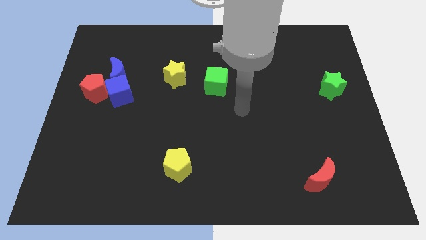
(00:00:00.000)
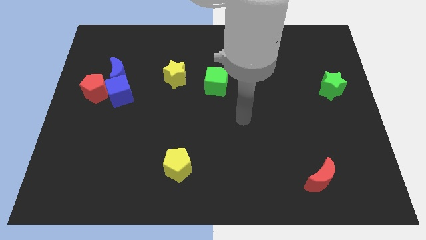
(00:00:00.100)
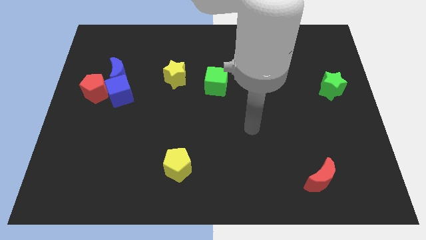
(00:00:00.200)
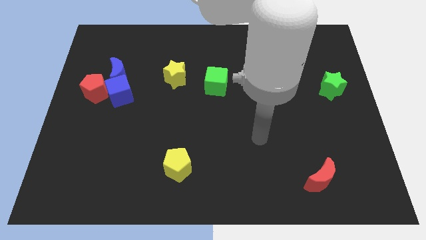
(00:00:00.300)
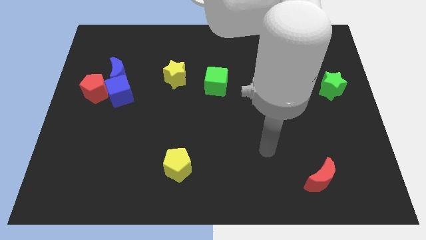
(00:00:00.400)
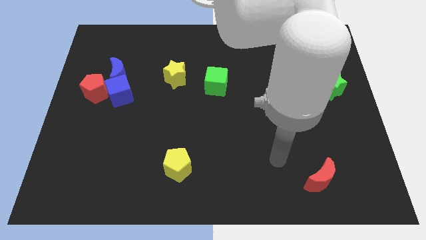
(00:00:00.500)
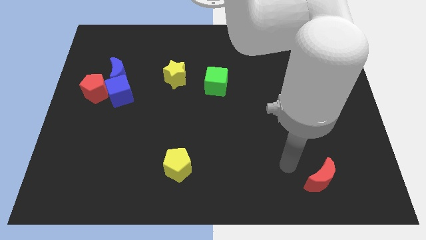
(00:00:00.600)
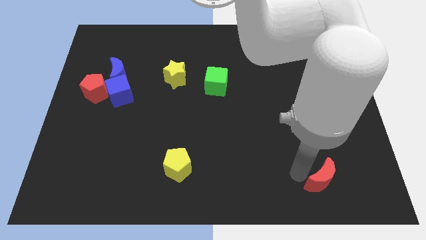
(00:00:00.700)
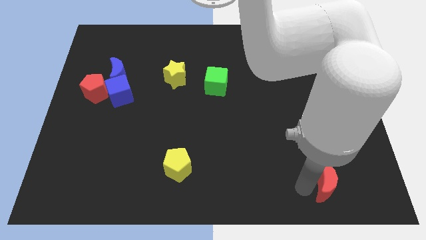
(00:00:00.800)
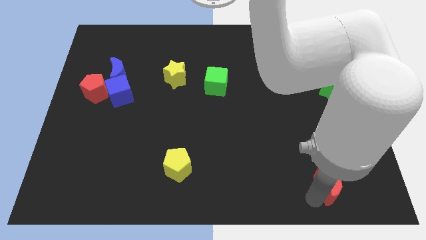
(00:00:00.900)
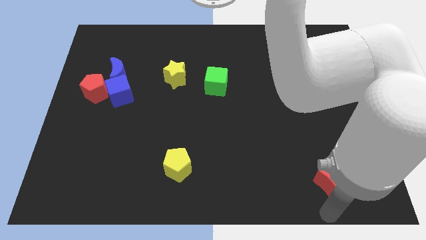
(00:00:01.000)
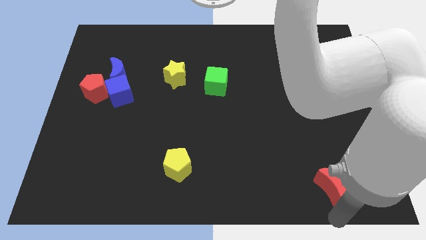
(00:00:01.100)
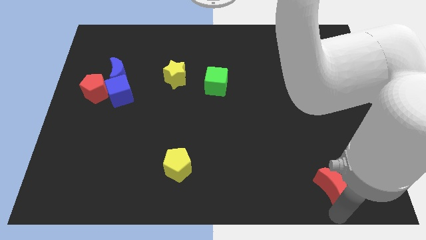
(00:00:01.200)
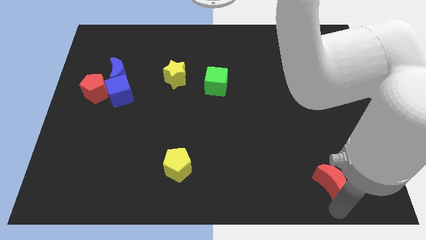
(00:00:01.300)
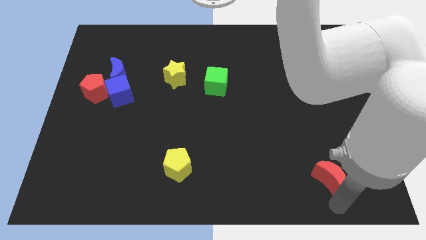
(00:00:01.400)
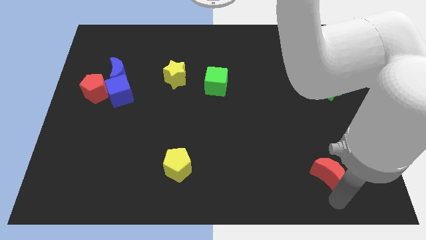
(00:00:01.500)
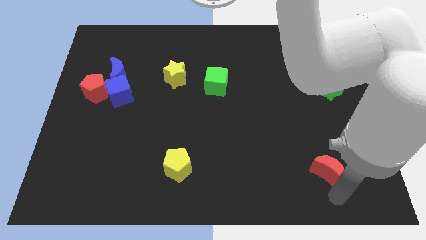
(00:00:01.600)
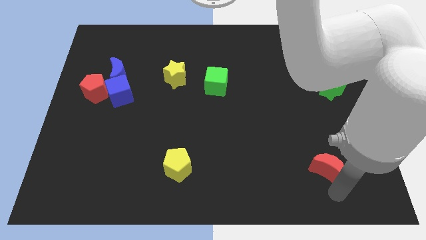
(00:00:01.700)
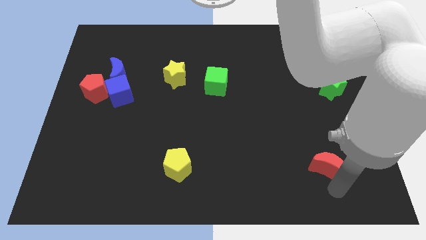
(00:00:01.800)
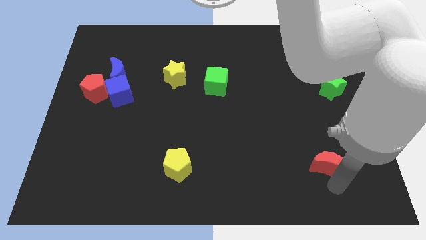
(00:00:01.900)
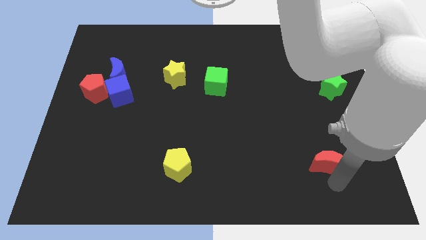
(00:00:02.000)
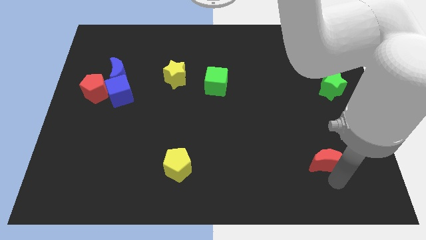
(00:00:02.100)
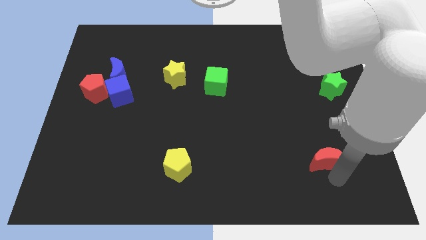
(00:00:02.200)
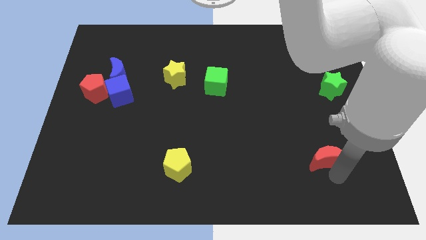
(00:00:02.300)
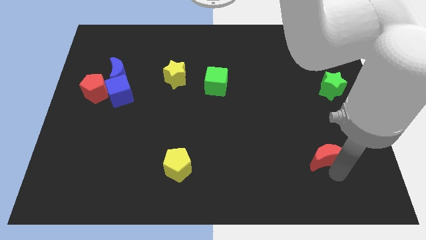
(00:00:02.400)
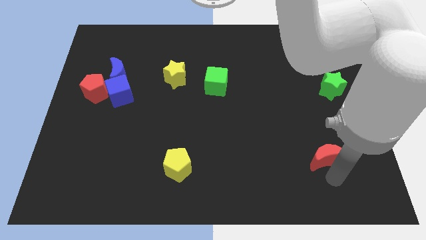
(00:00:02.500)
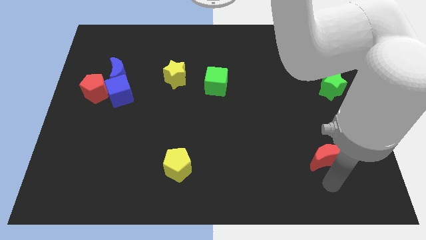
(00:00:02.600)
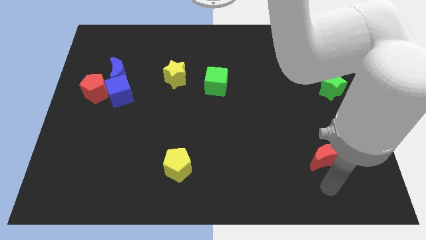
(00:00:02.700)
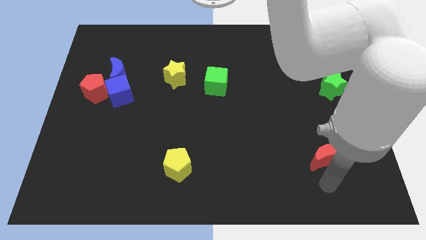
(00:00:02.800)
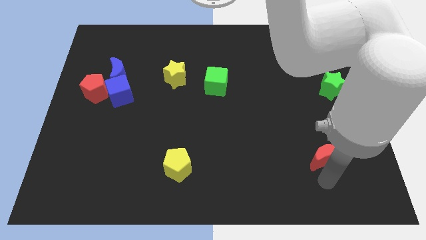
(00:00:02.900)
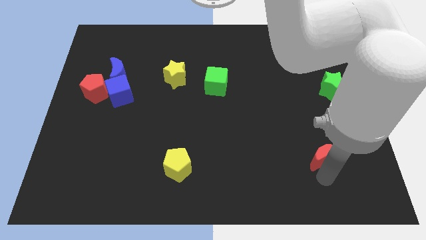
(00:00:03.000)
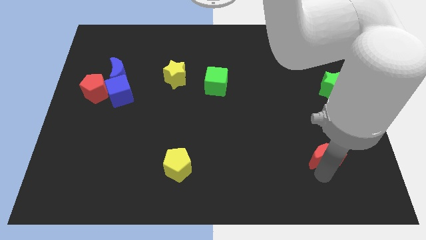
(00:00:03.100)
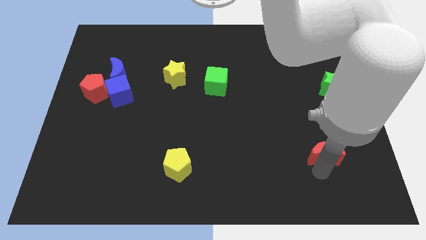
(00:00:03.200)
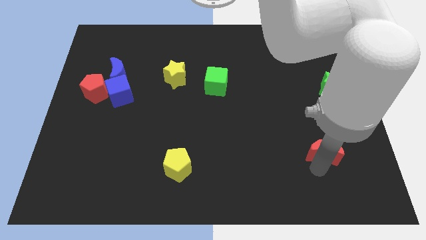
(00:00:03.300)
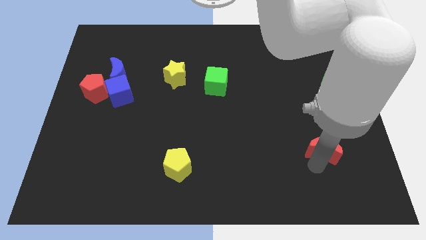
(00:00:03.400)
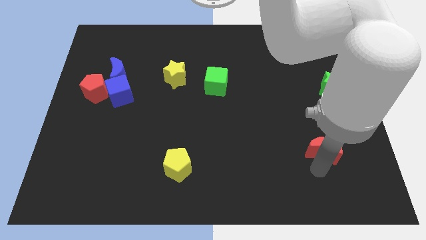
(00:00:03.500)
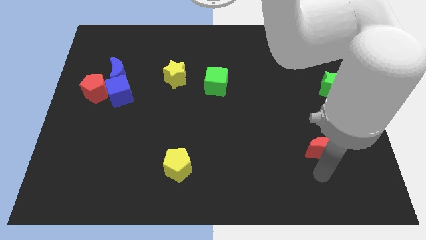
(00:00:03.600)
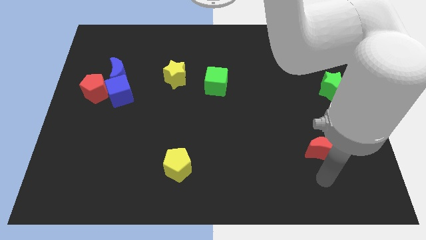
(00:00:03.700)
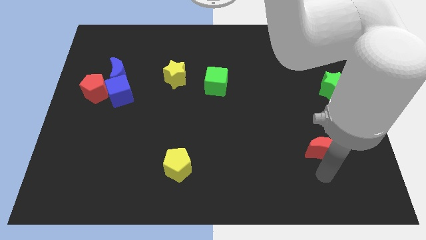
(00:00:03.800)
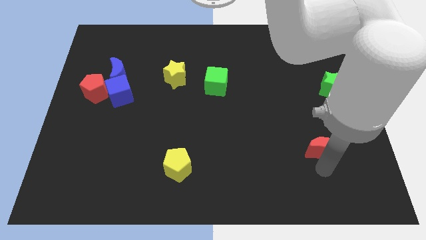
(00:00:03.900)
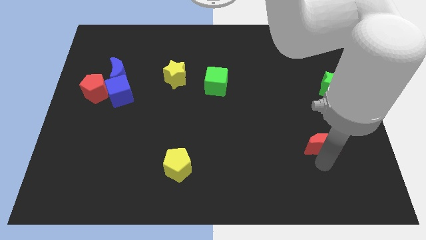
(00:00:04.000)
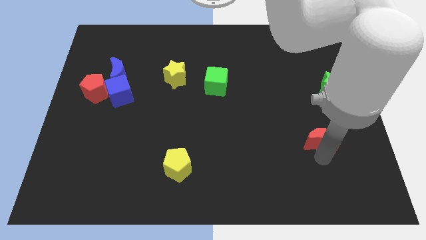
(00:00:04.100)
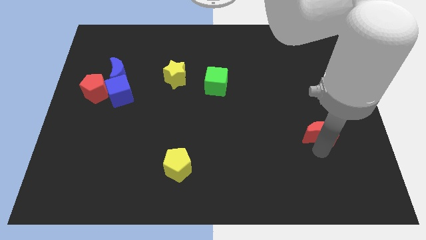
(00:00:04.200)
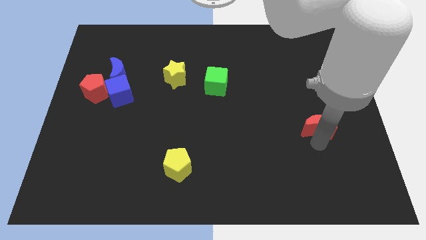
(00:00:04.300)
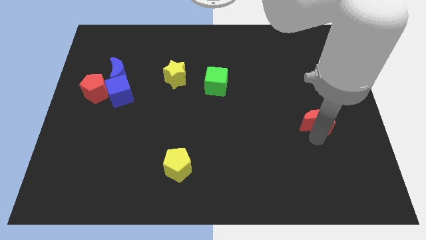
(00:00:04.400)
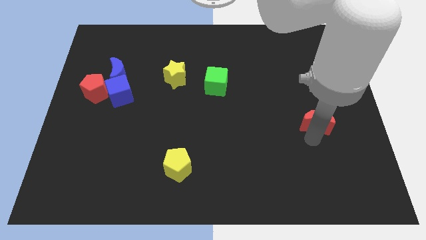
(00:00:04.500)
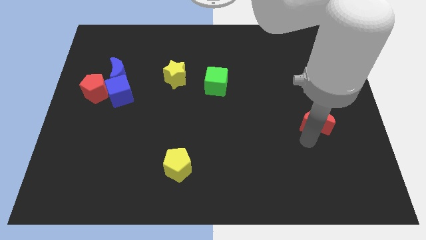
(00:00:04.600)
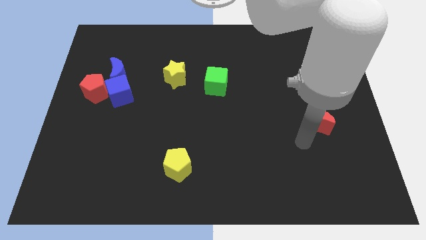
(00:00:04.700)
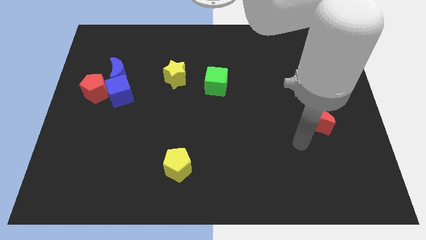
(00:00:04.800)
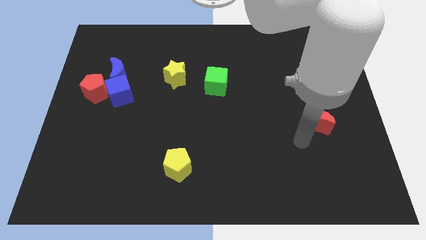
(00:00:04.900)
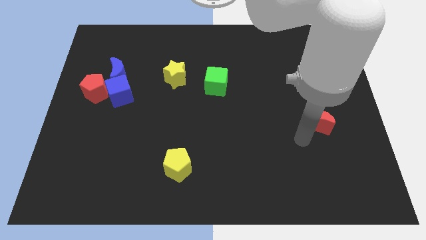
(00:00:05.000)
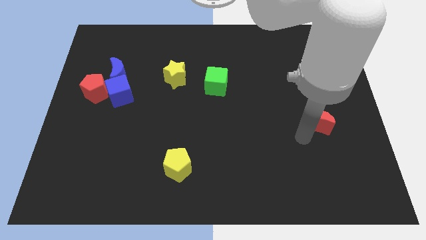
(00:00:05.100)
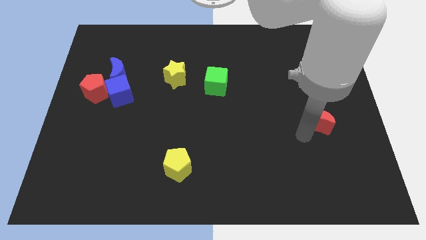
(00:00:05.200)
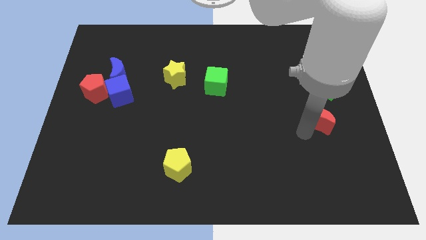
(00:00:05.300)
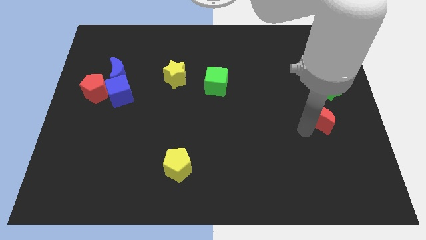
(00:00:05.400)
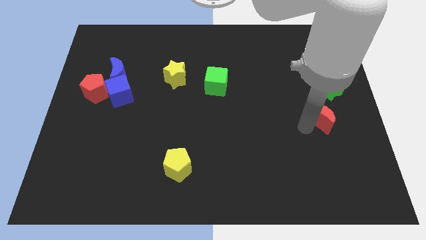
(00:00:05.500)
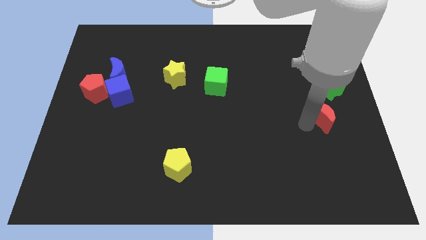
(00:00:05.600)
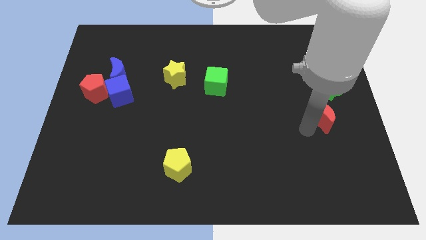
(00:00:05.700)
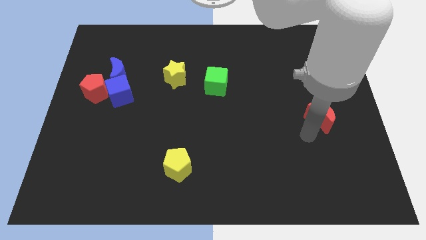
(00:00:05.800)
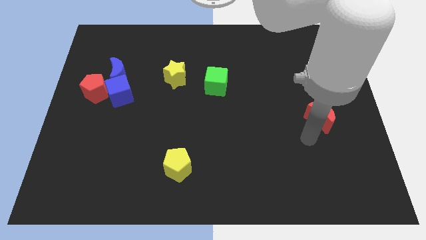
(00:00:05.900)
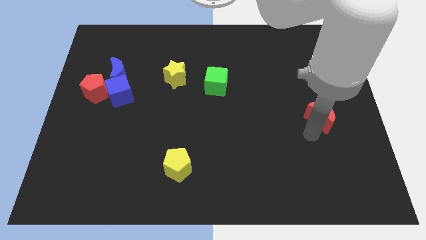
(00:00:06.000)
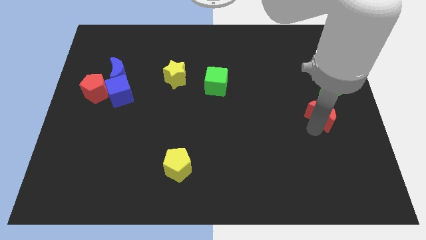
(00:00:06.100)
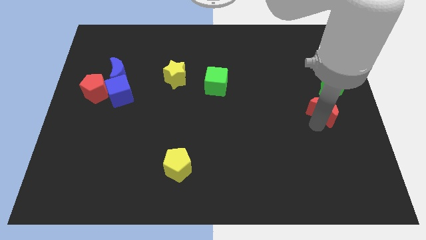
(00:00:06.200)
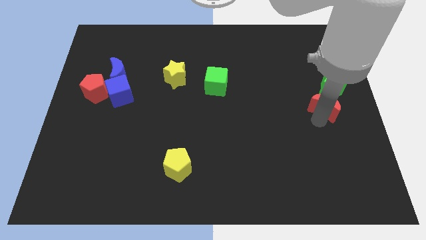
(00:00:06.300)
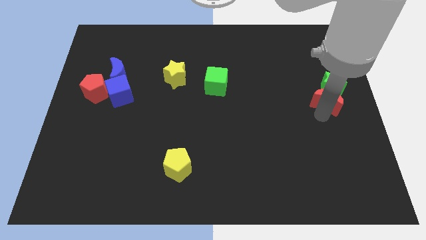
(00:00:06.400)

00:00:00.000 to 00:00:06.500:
slide the red moon close to the green star

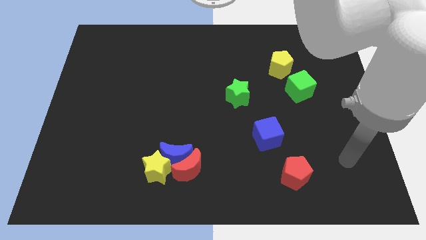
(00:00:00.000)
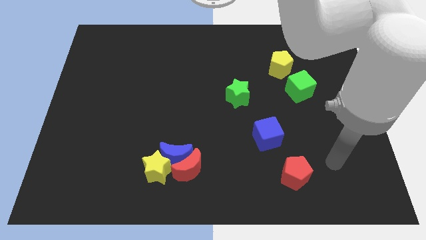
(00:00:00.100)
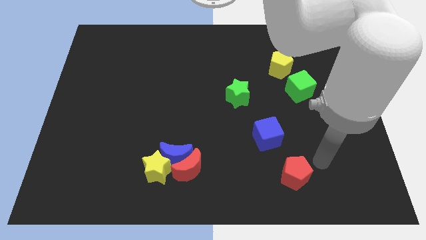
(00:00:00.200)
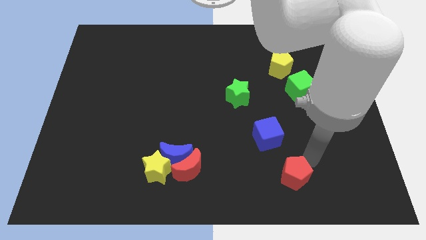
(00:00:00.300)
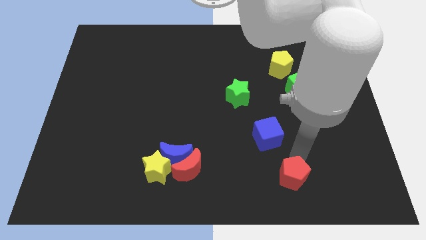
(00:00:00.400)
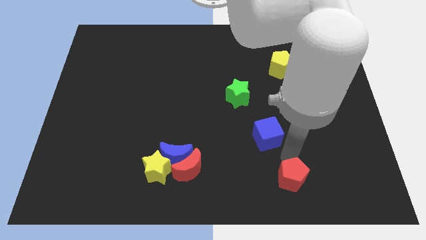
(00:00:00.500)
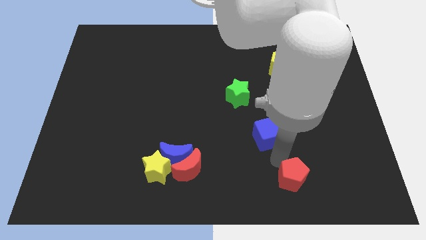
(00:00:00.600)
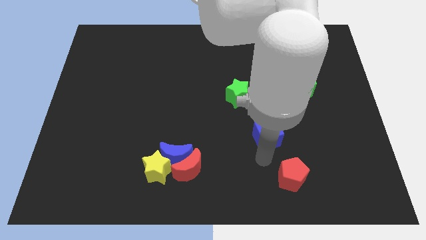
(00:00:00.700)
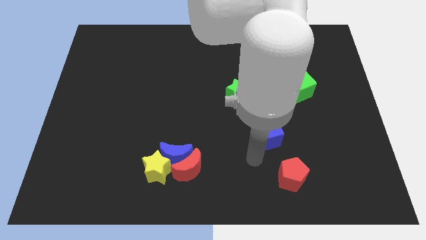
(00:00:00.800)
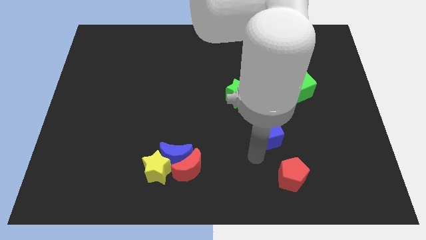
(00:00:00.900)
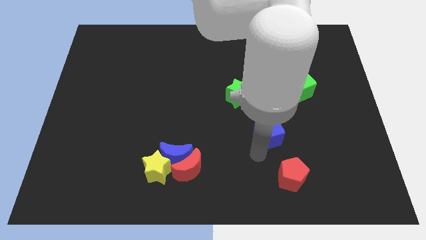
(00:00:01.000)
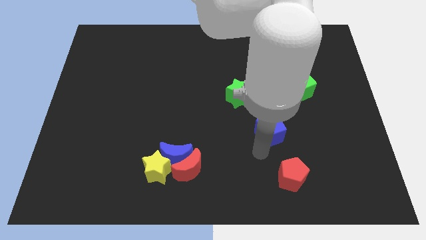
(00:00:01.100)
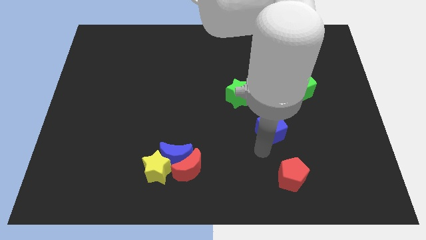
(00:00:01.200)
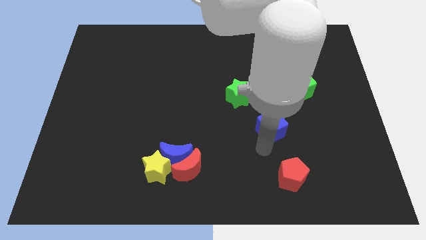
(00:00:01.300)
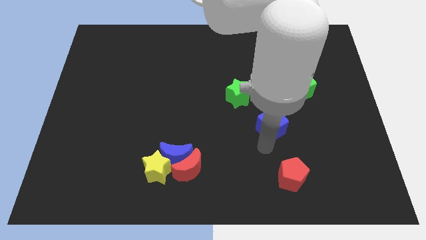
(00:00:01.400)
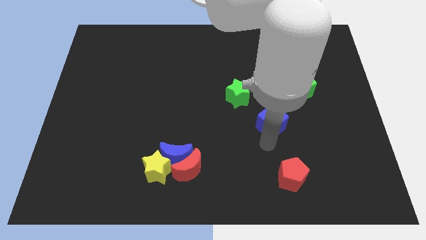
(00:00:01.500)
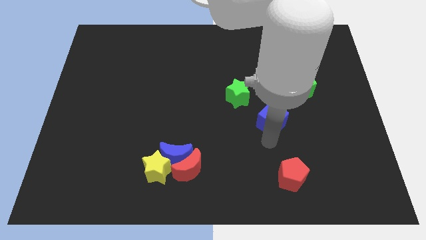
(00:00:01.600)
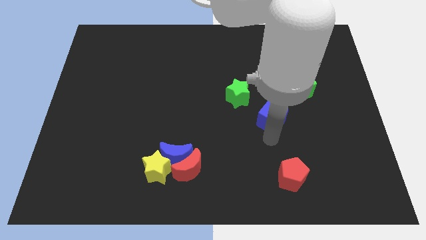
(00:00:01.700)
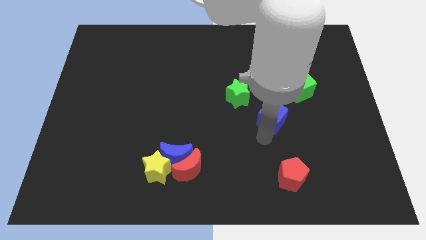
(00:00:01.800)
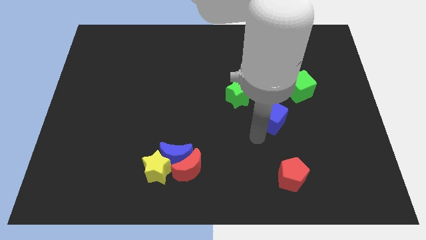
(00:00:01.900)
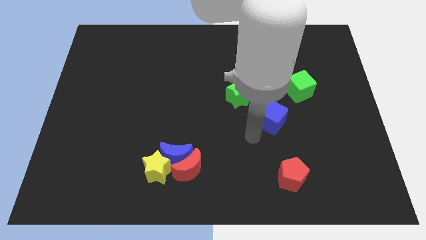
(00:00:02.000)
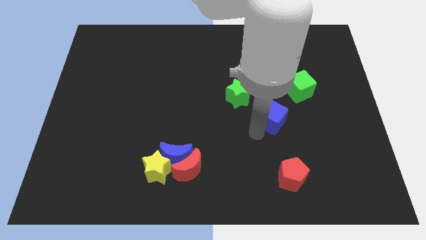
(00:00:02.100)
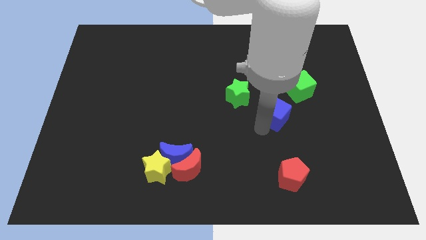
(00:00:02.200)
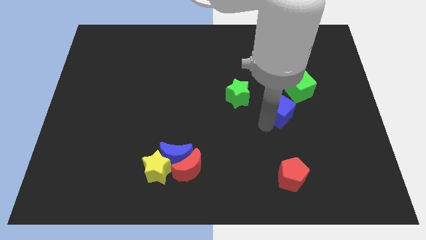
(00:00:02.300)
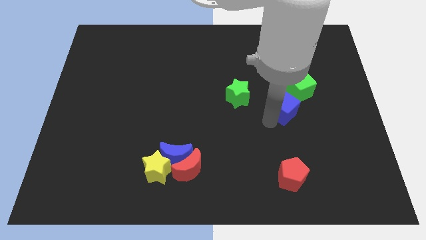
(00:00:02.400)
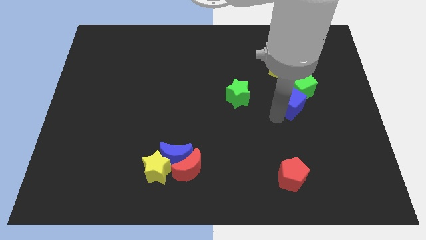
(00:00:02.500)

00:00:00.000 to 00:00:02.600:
push the blue cube towards the green cube
